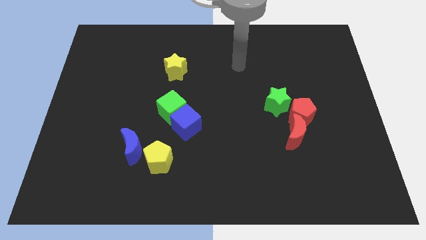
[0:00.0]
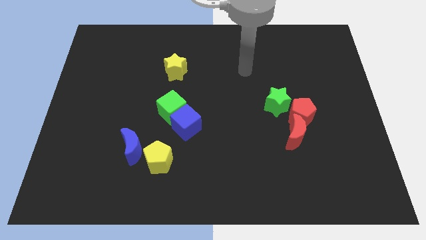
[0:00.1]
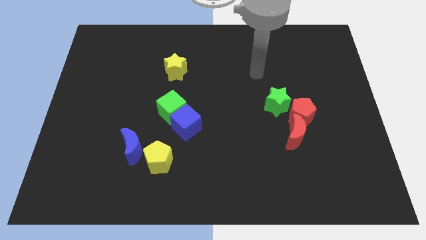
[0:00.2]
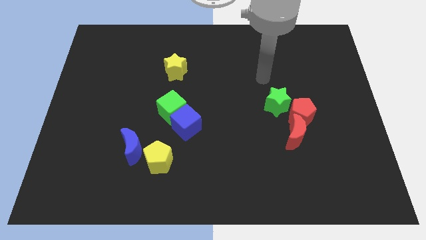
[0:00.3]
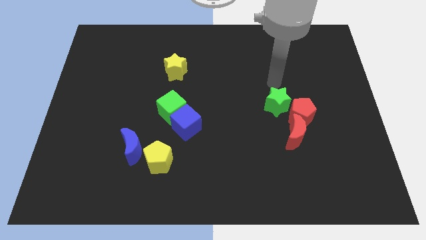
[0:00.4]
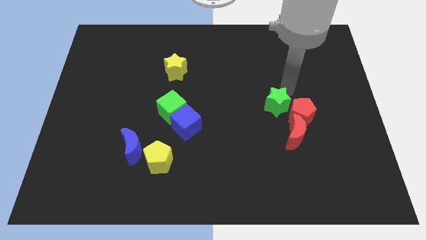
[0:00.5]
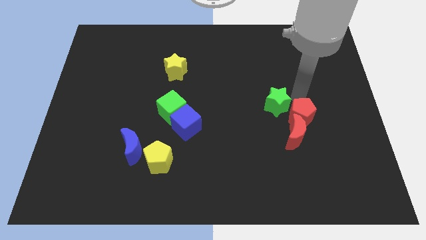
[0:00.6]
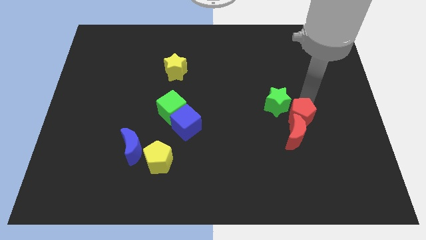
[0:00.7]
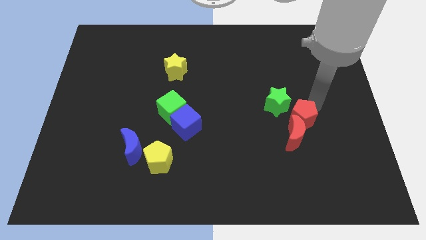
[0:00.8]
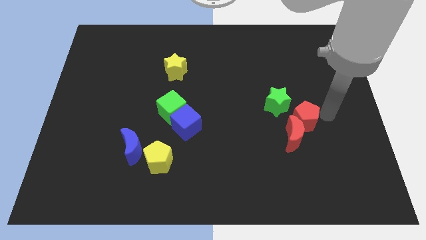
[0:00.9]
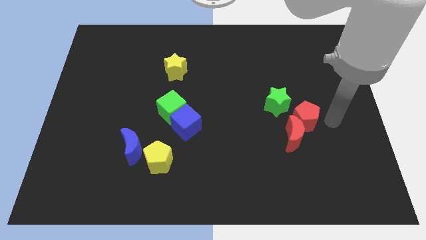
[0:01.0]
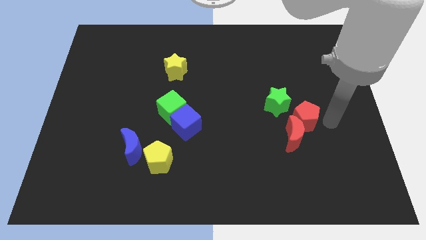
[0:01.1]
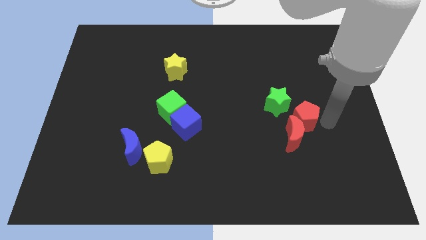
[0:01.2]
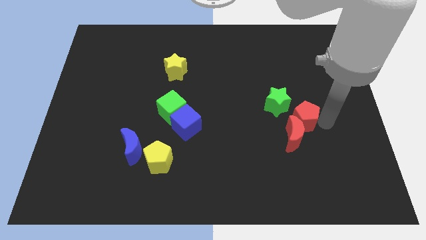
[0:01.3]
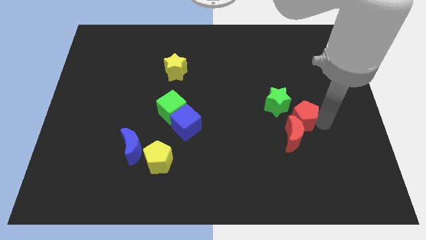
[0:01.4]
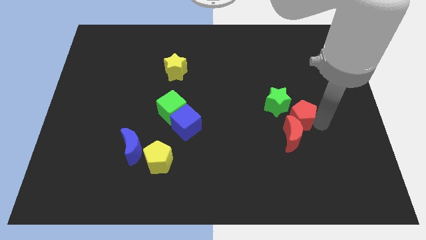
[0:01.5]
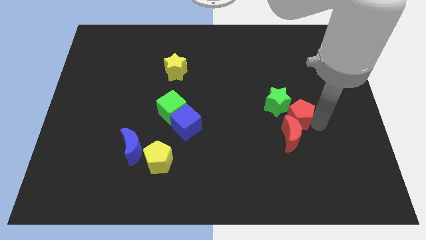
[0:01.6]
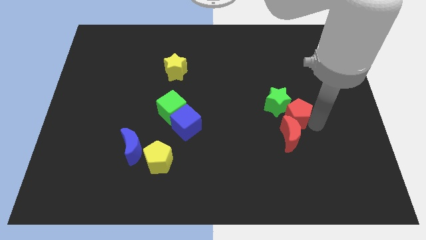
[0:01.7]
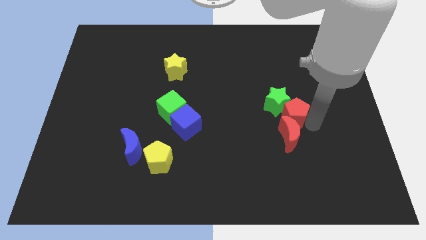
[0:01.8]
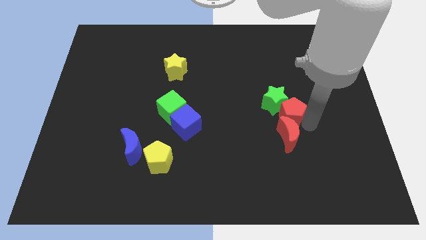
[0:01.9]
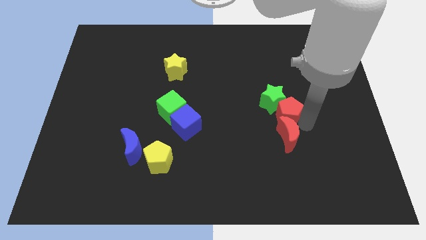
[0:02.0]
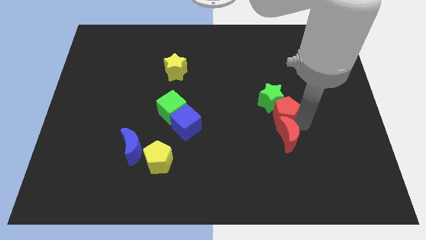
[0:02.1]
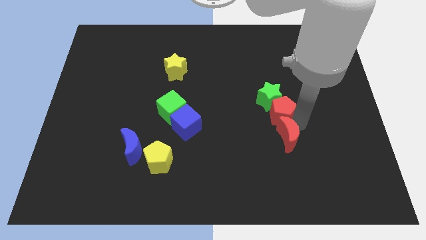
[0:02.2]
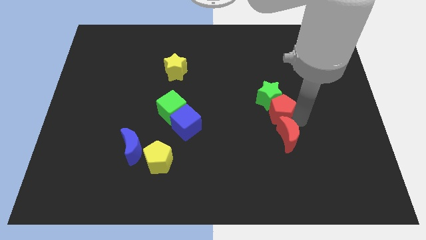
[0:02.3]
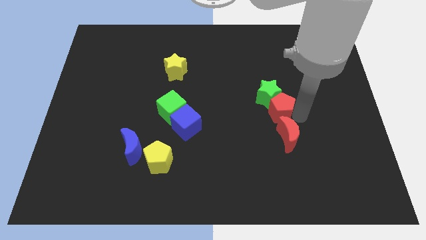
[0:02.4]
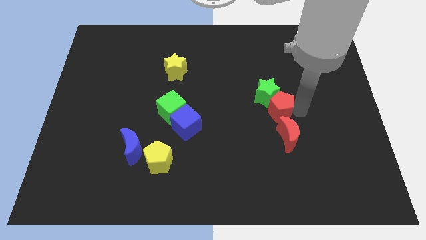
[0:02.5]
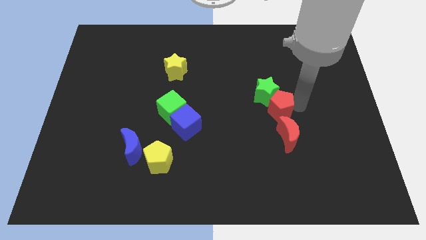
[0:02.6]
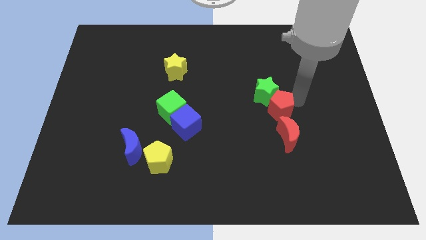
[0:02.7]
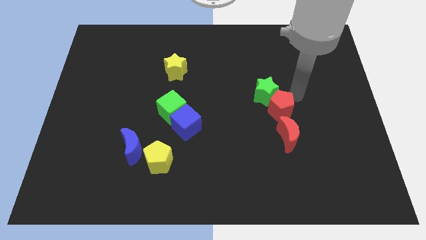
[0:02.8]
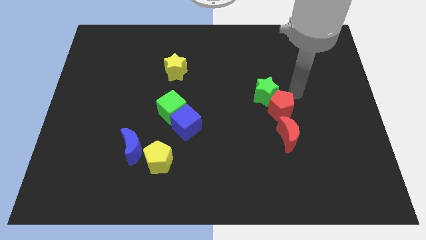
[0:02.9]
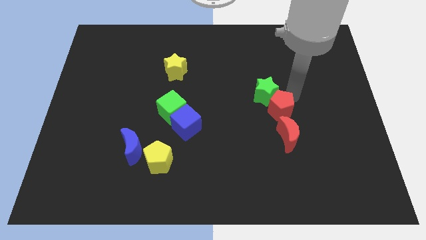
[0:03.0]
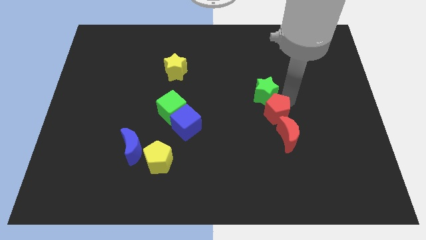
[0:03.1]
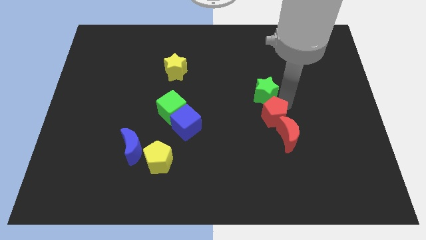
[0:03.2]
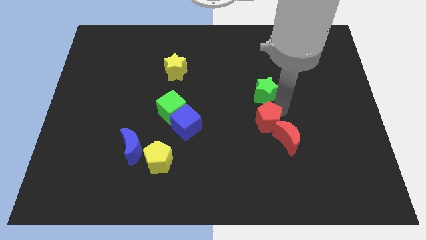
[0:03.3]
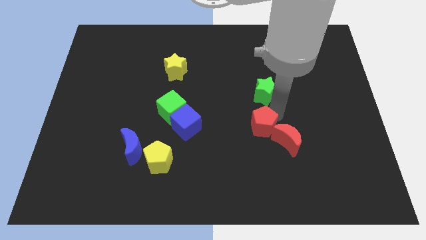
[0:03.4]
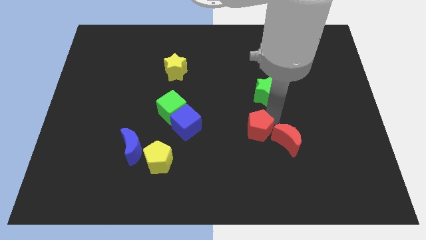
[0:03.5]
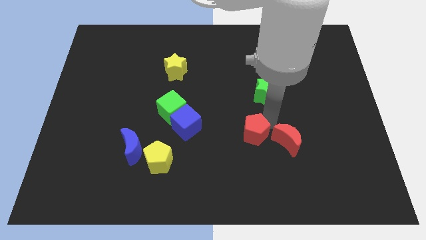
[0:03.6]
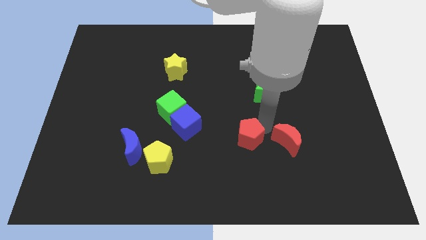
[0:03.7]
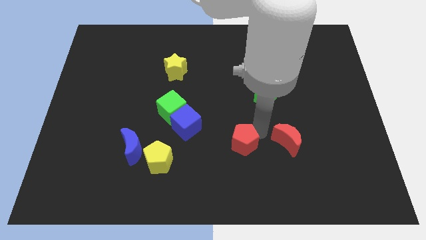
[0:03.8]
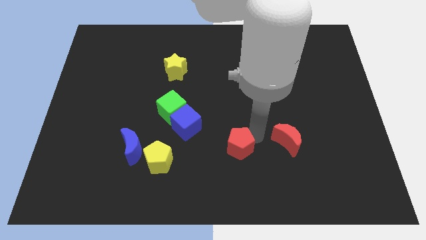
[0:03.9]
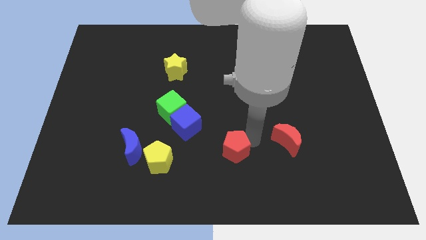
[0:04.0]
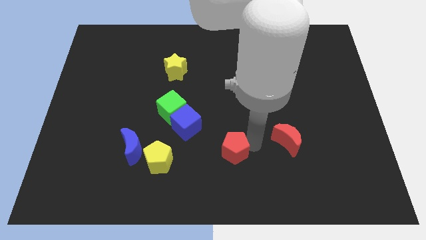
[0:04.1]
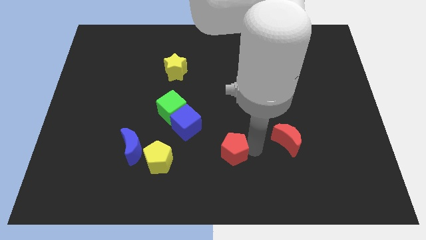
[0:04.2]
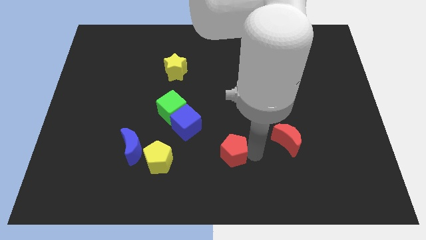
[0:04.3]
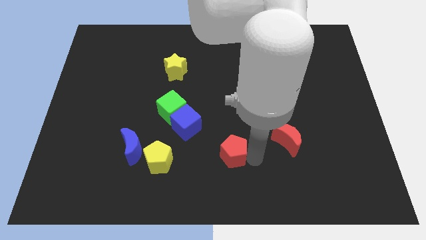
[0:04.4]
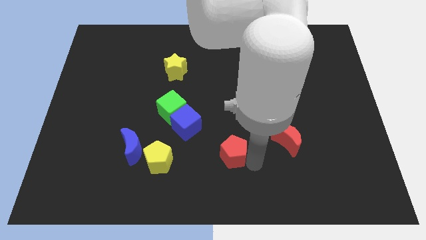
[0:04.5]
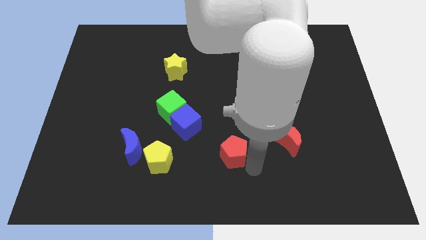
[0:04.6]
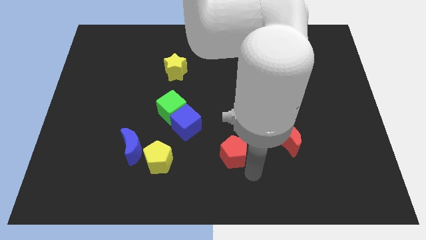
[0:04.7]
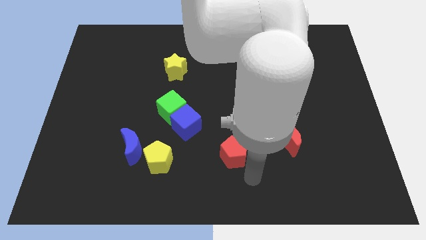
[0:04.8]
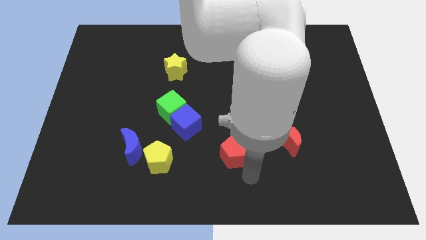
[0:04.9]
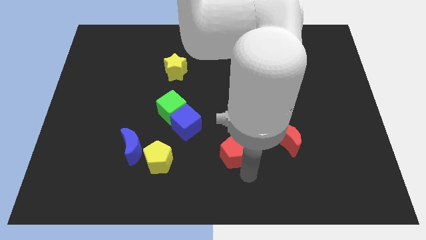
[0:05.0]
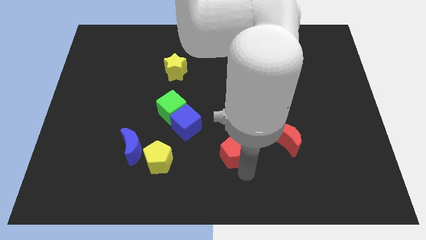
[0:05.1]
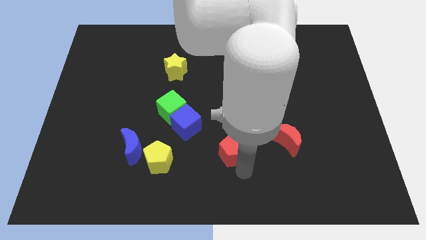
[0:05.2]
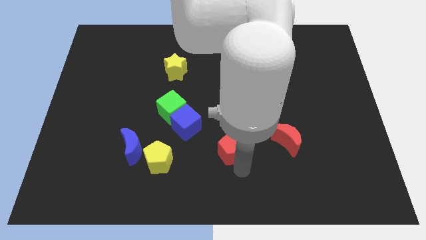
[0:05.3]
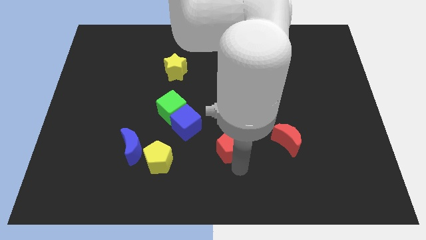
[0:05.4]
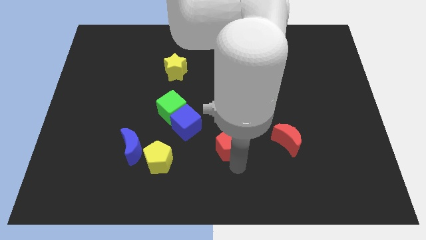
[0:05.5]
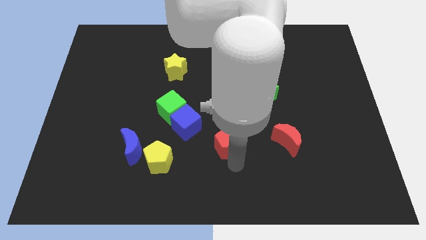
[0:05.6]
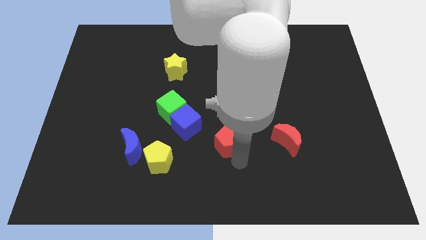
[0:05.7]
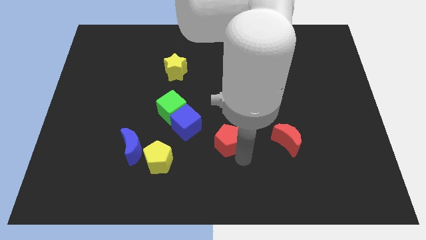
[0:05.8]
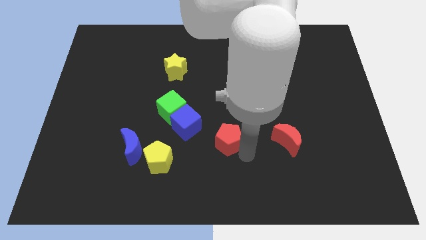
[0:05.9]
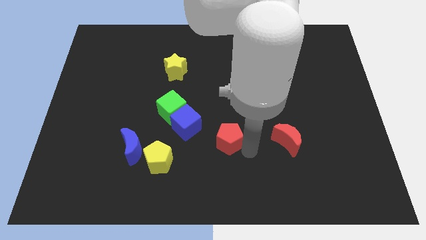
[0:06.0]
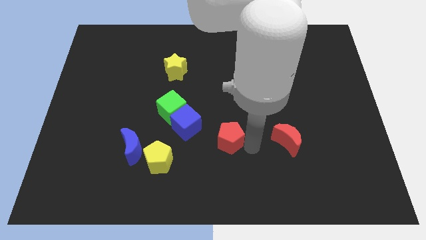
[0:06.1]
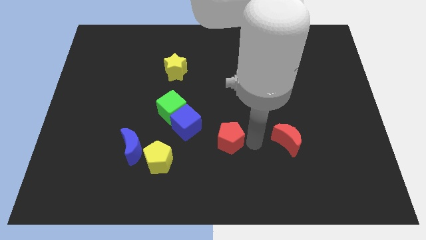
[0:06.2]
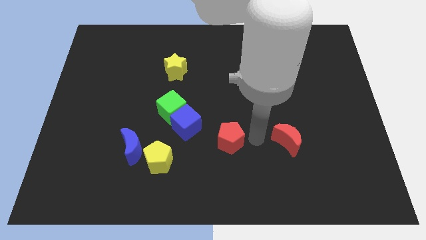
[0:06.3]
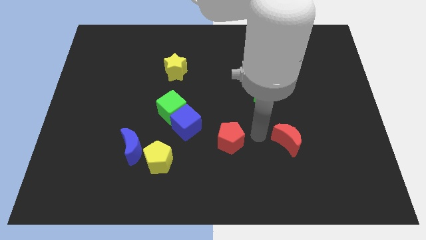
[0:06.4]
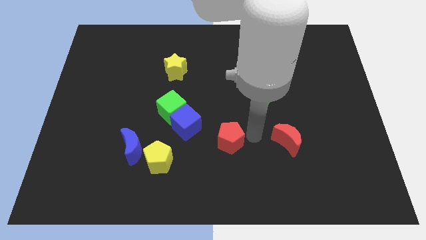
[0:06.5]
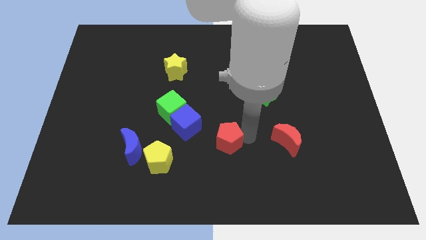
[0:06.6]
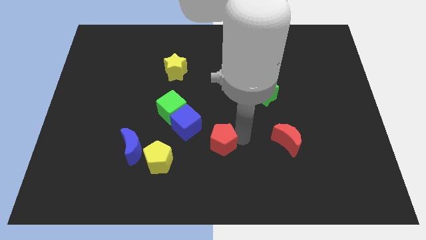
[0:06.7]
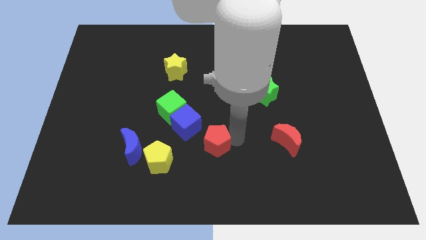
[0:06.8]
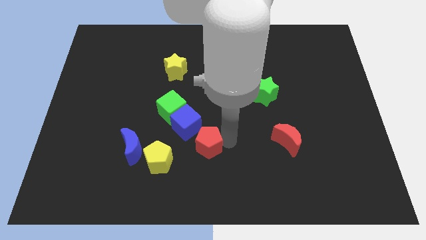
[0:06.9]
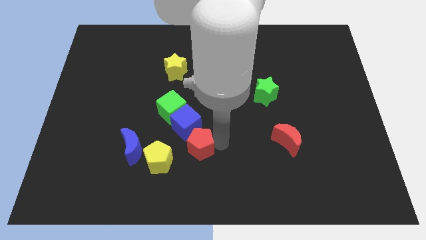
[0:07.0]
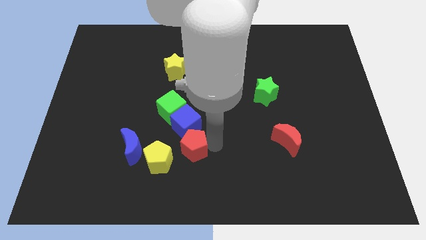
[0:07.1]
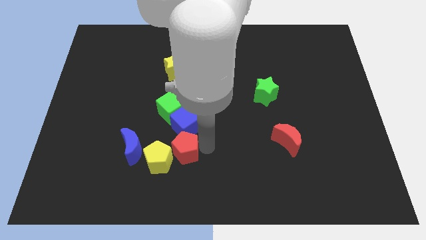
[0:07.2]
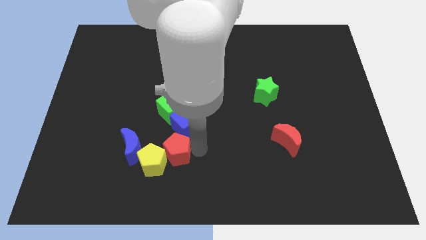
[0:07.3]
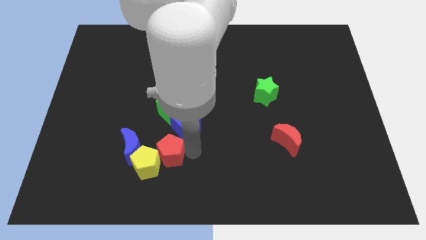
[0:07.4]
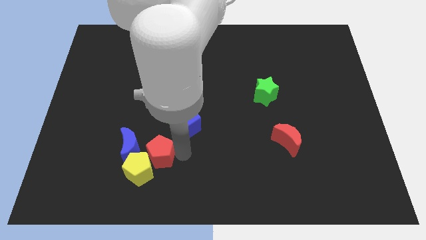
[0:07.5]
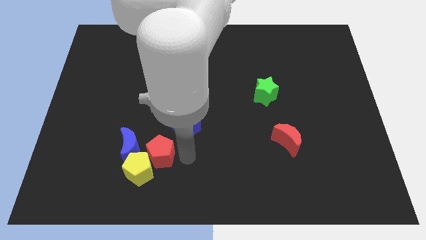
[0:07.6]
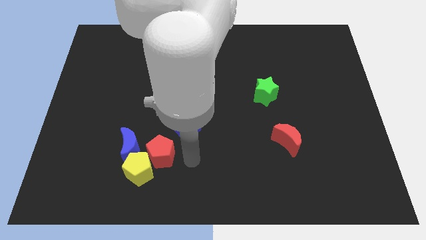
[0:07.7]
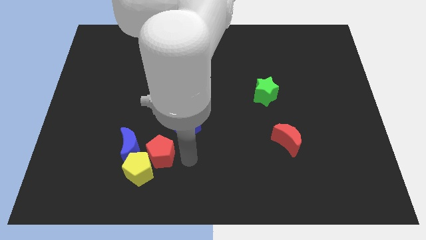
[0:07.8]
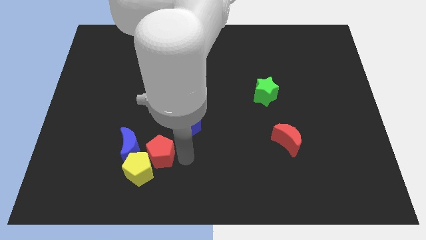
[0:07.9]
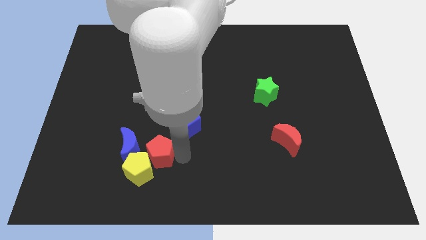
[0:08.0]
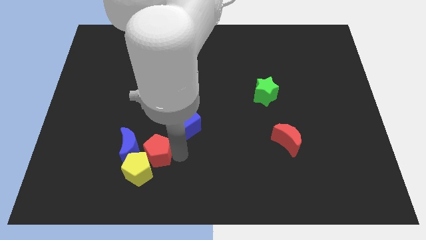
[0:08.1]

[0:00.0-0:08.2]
push the red pentagon close to the blue moon
